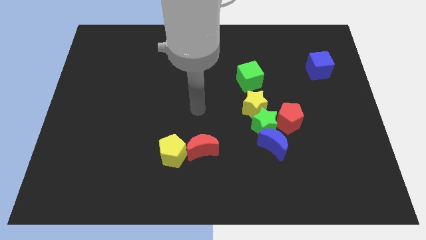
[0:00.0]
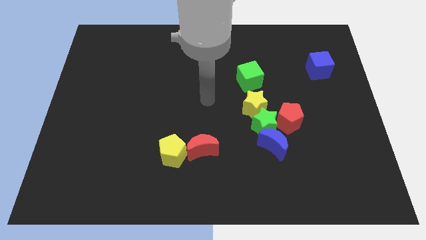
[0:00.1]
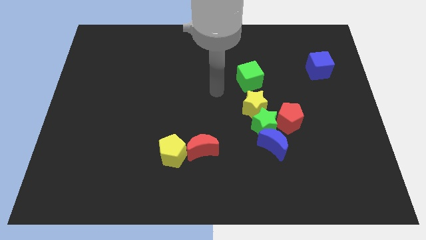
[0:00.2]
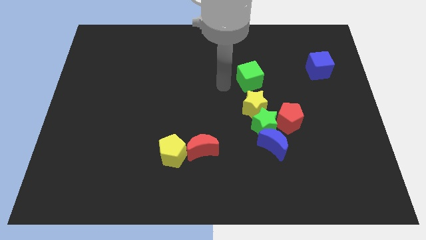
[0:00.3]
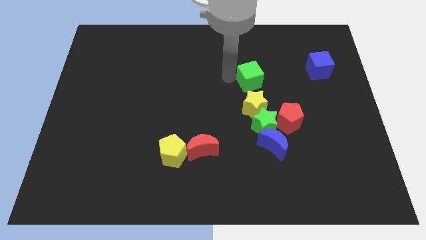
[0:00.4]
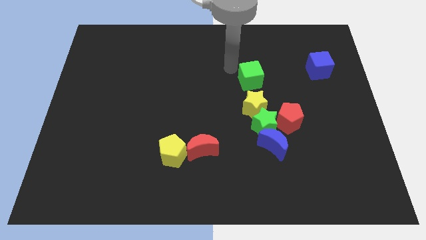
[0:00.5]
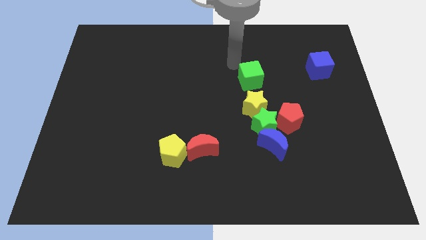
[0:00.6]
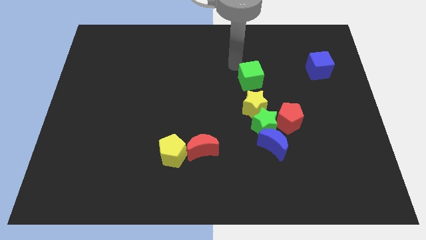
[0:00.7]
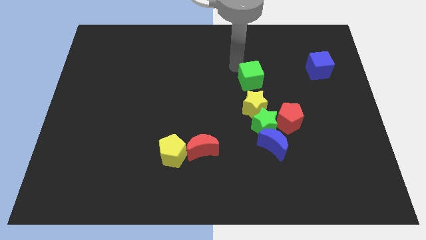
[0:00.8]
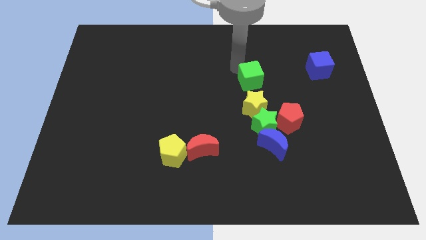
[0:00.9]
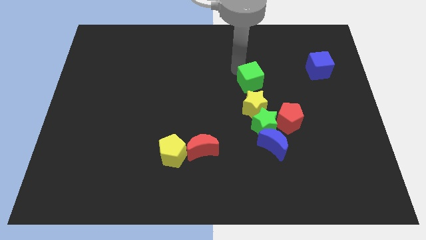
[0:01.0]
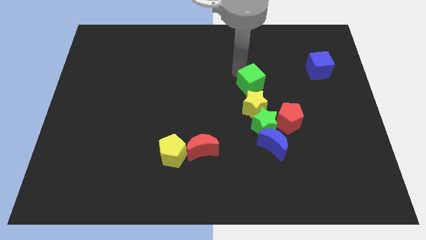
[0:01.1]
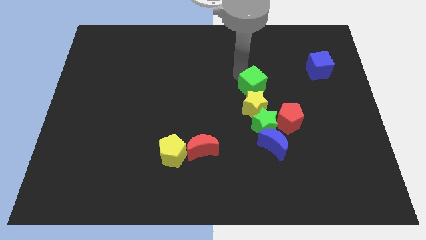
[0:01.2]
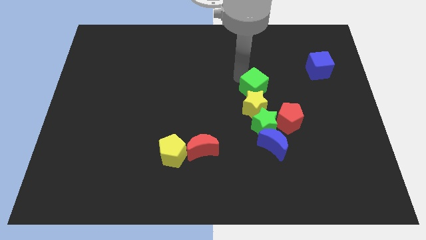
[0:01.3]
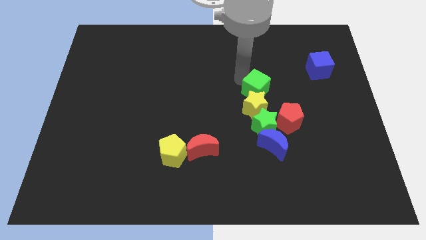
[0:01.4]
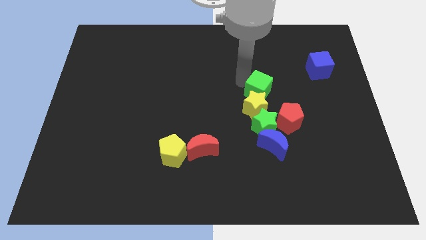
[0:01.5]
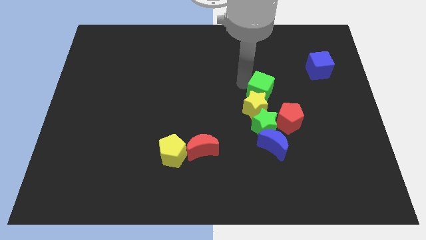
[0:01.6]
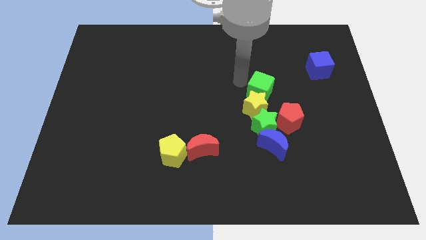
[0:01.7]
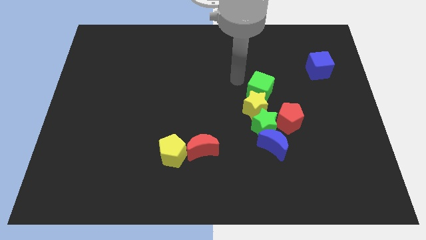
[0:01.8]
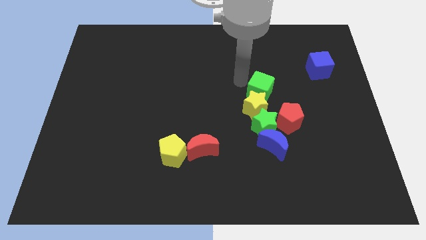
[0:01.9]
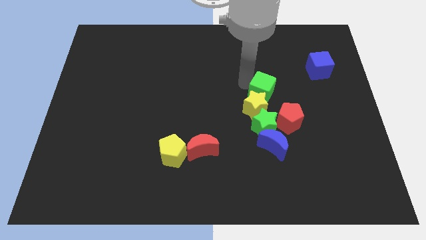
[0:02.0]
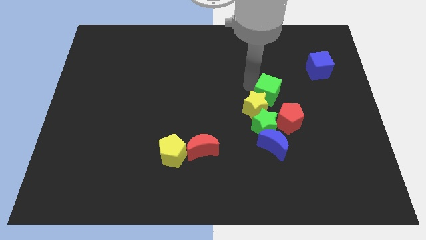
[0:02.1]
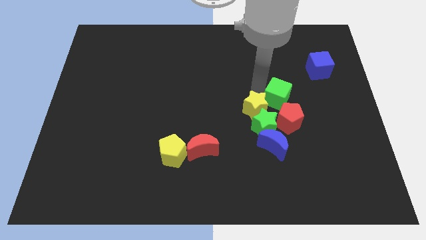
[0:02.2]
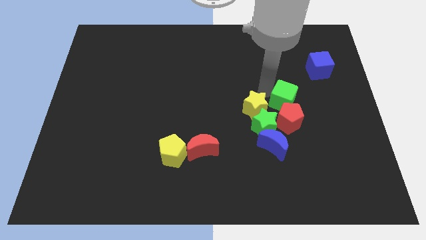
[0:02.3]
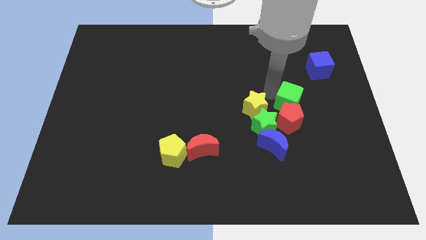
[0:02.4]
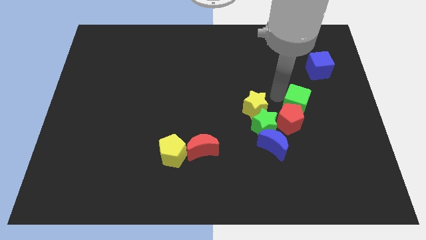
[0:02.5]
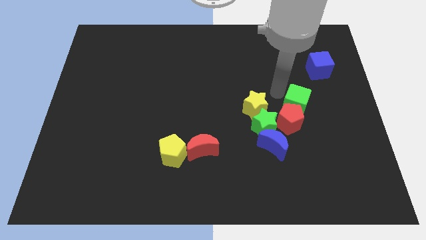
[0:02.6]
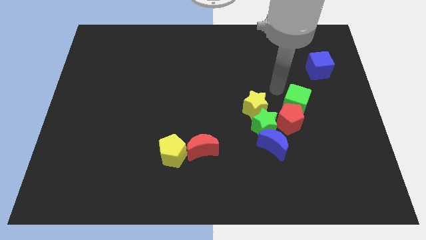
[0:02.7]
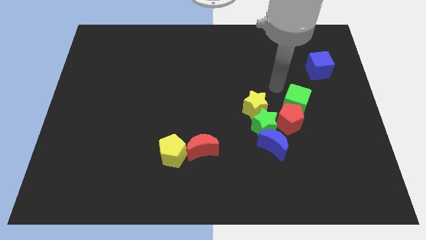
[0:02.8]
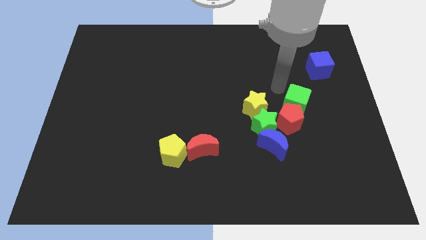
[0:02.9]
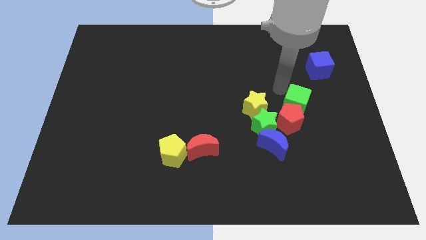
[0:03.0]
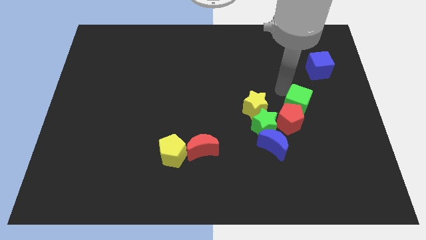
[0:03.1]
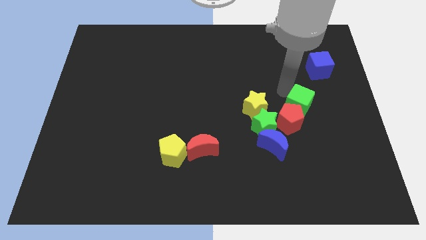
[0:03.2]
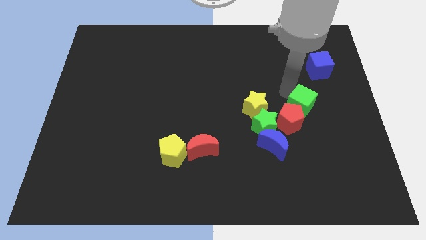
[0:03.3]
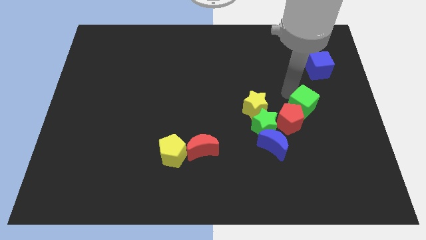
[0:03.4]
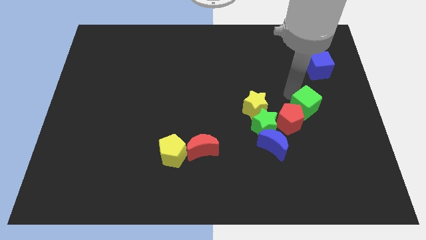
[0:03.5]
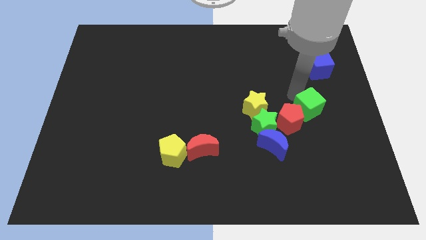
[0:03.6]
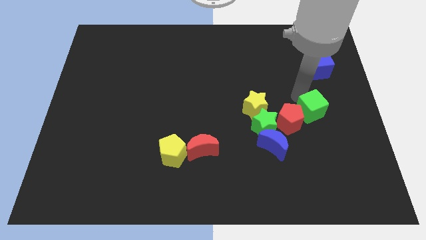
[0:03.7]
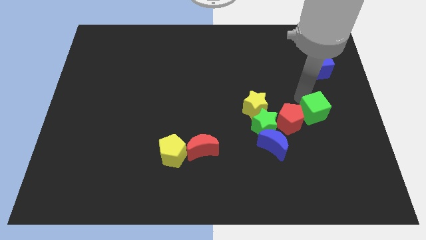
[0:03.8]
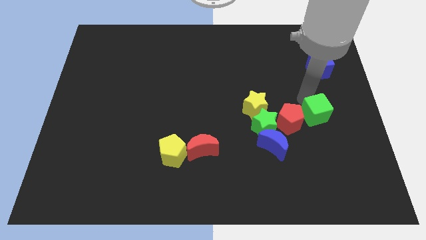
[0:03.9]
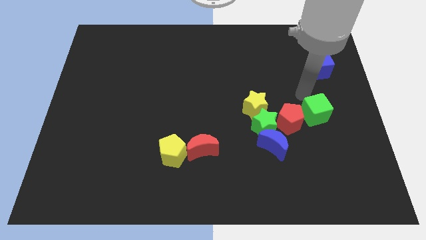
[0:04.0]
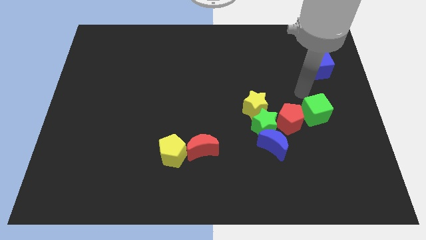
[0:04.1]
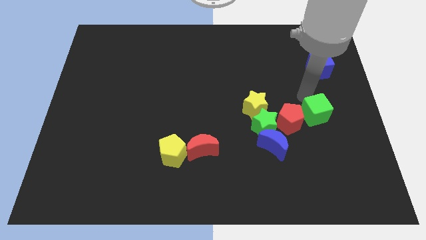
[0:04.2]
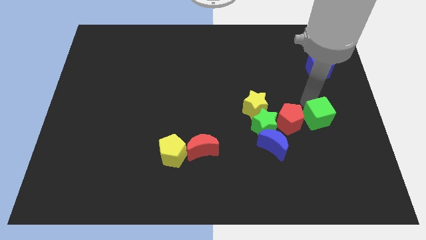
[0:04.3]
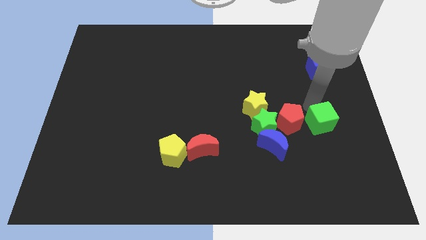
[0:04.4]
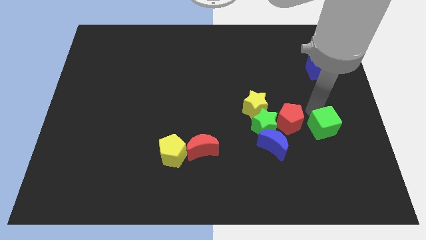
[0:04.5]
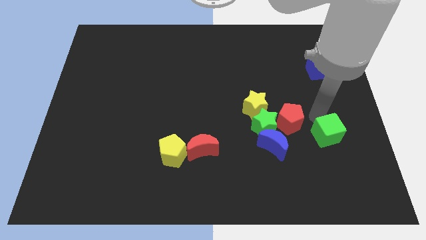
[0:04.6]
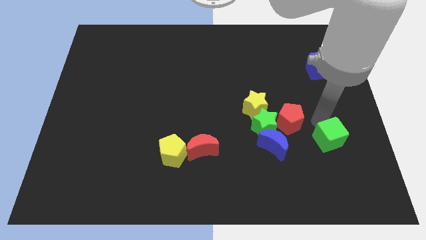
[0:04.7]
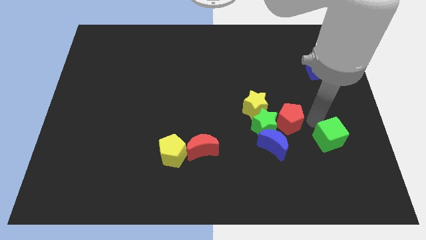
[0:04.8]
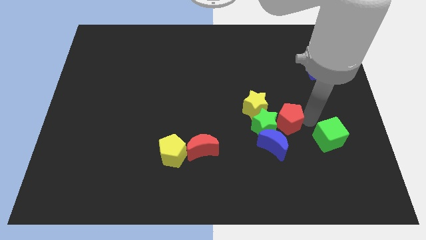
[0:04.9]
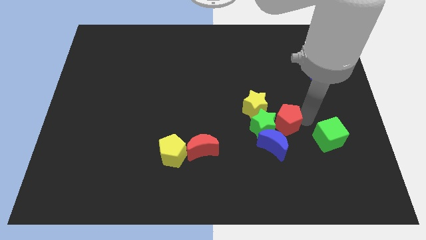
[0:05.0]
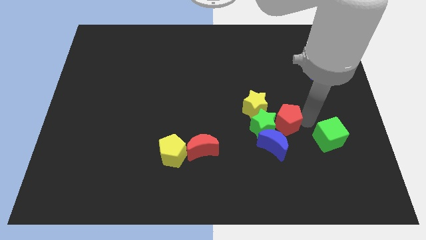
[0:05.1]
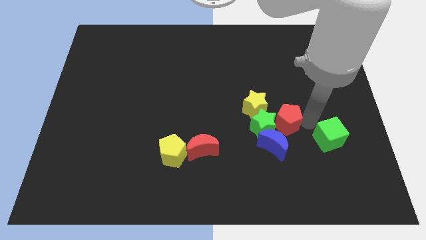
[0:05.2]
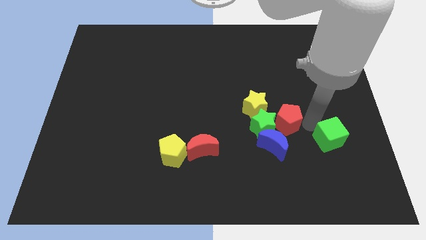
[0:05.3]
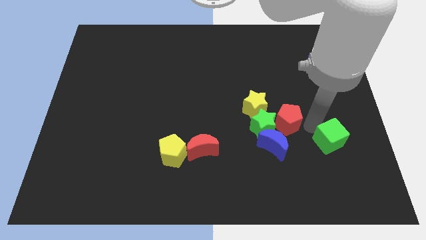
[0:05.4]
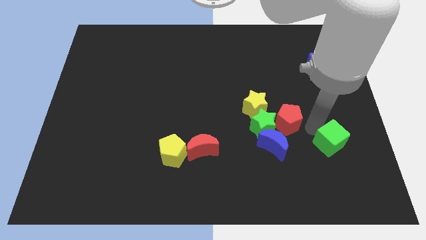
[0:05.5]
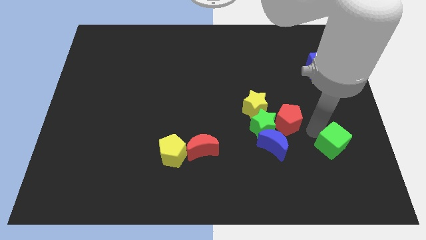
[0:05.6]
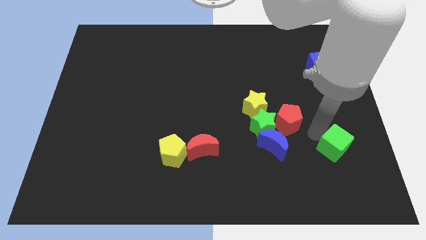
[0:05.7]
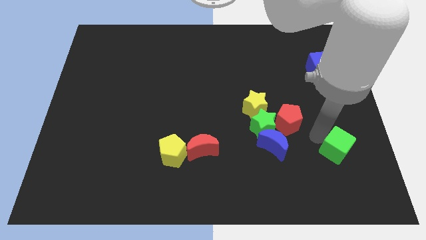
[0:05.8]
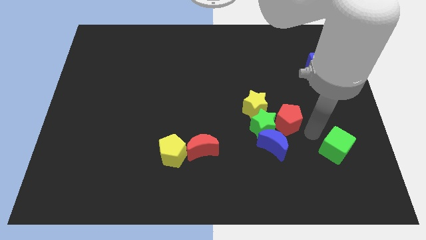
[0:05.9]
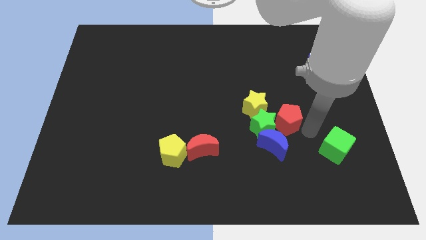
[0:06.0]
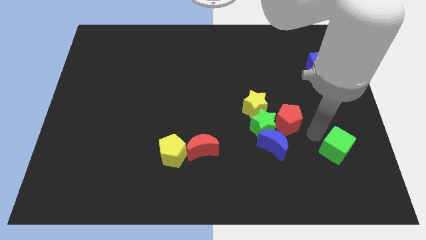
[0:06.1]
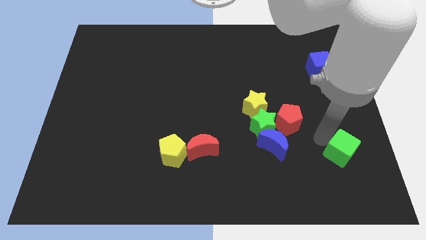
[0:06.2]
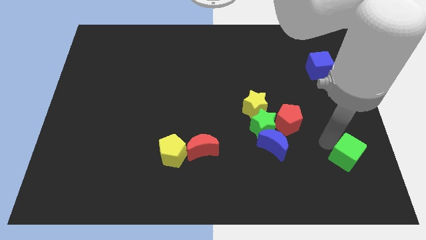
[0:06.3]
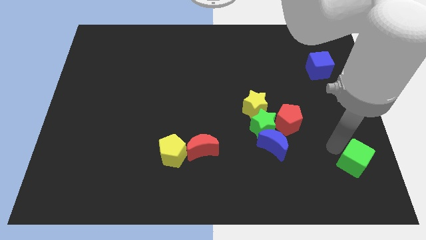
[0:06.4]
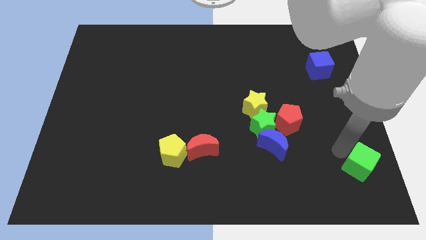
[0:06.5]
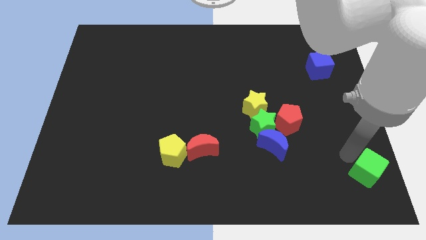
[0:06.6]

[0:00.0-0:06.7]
move the green cube to the bottom right of the board
